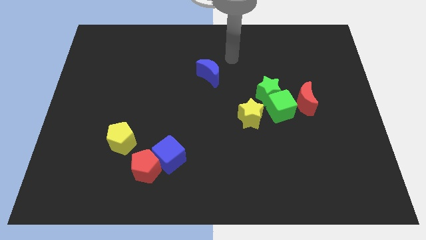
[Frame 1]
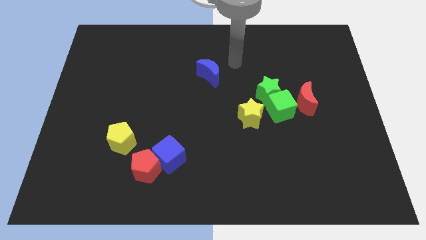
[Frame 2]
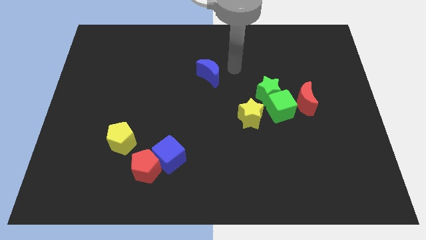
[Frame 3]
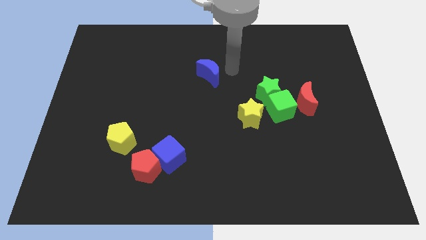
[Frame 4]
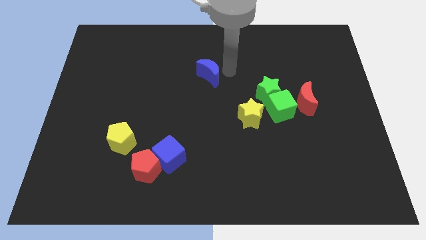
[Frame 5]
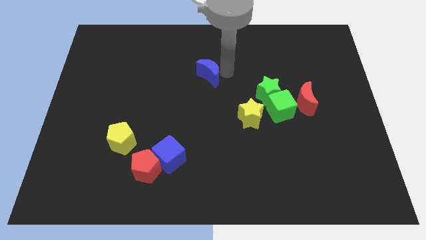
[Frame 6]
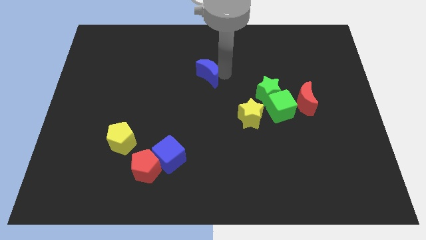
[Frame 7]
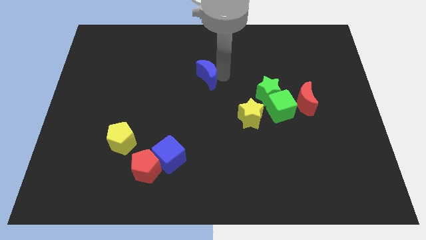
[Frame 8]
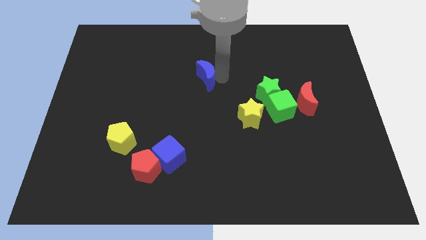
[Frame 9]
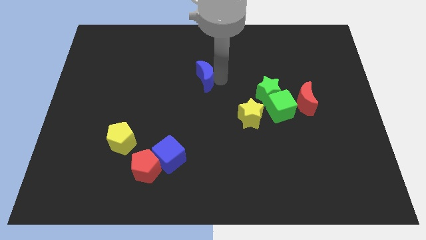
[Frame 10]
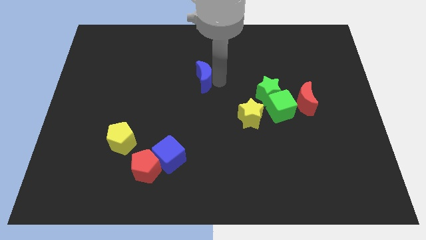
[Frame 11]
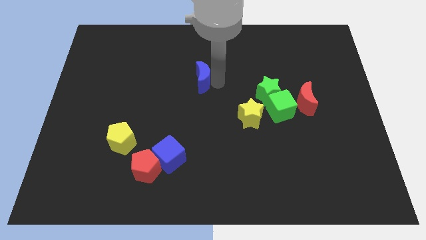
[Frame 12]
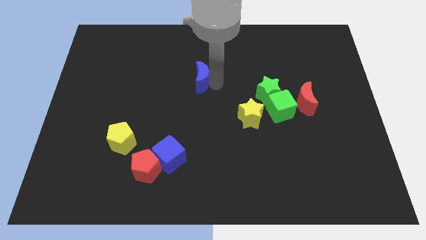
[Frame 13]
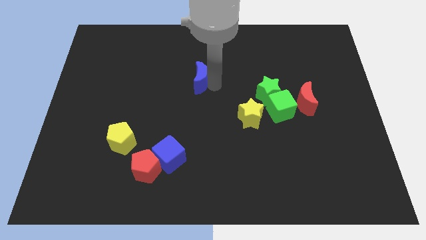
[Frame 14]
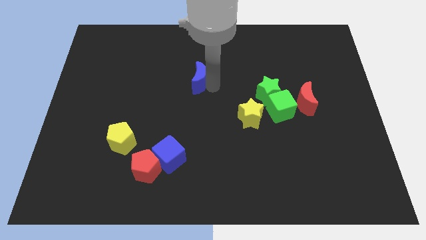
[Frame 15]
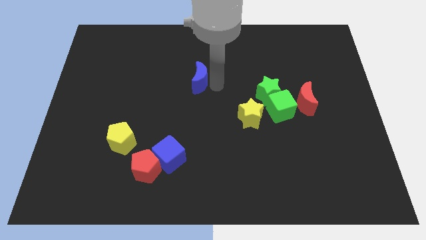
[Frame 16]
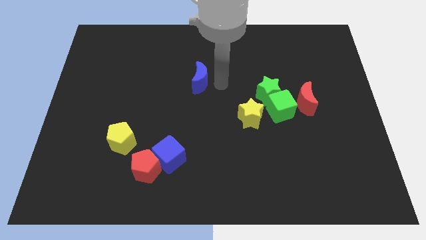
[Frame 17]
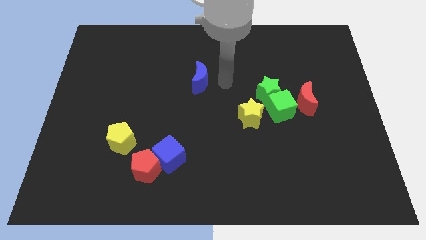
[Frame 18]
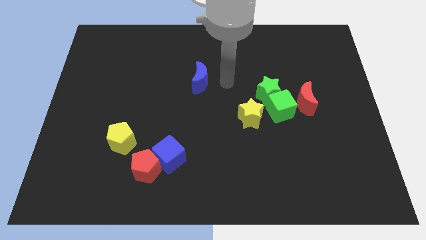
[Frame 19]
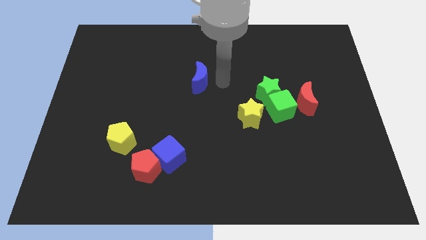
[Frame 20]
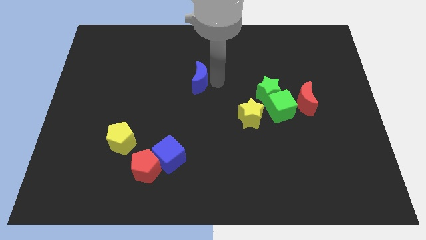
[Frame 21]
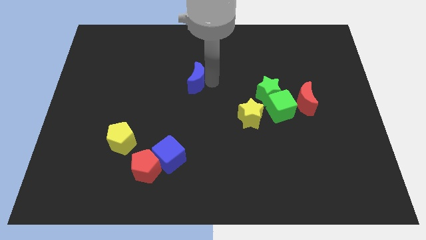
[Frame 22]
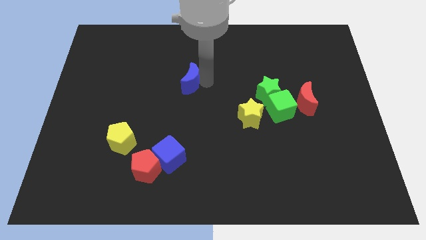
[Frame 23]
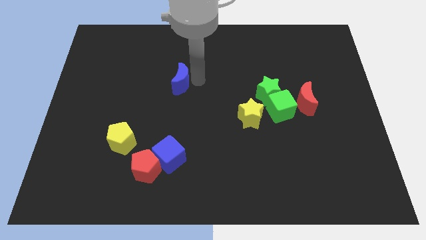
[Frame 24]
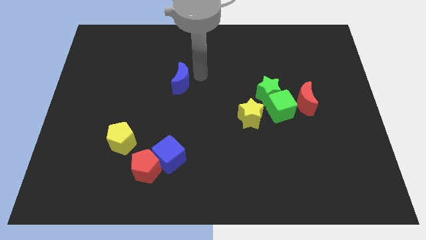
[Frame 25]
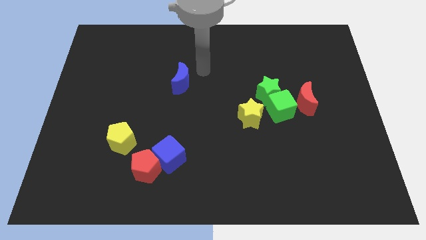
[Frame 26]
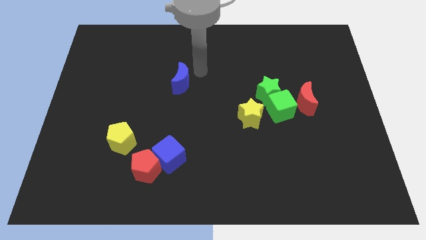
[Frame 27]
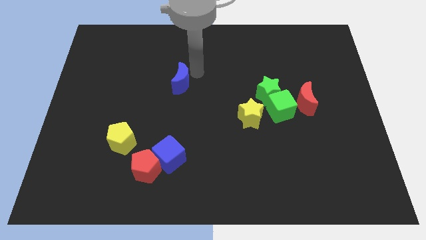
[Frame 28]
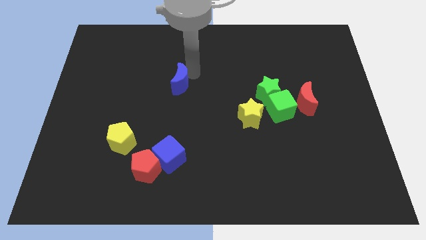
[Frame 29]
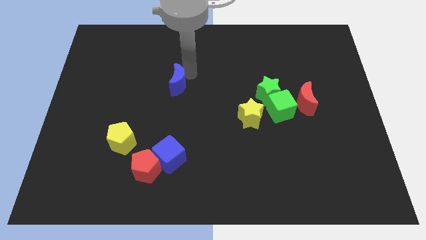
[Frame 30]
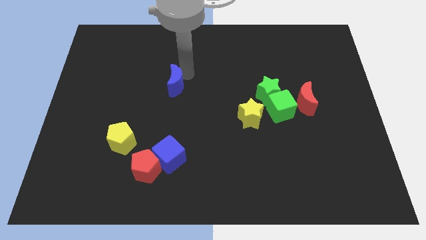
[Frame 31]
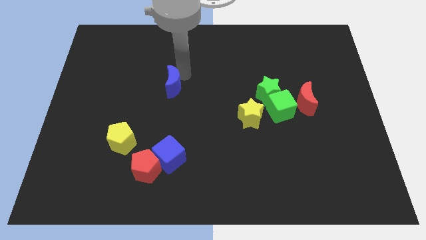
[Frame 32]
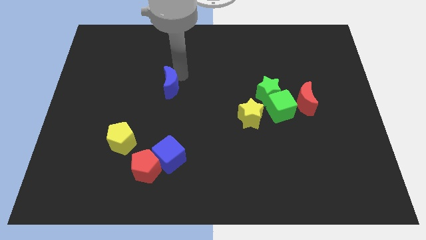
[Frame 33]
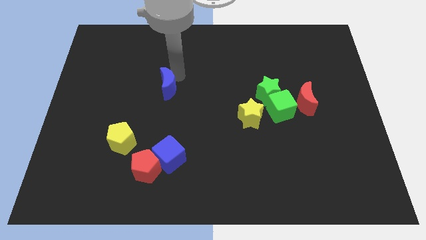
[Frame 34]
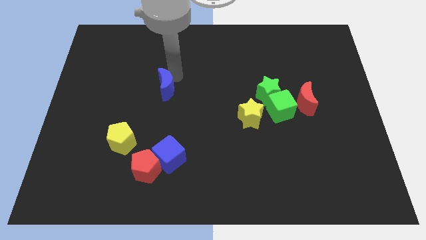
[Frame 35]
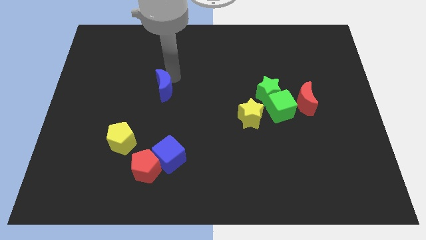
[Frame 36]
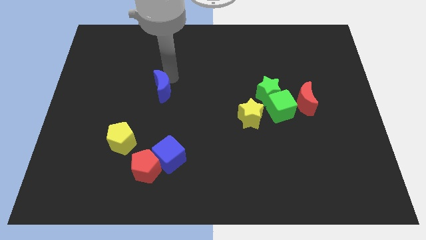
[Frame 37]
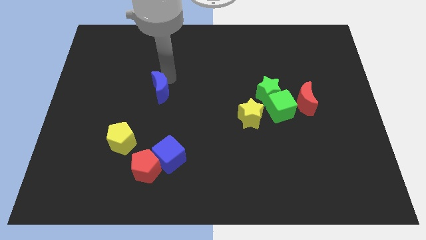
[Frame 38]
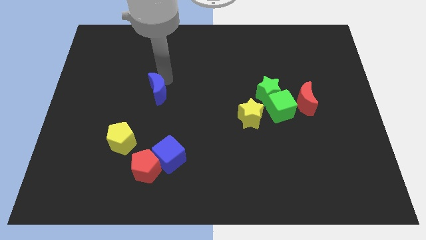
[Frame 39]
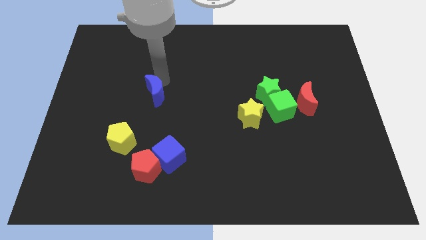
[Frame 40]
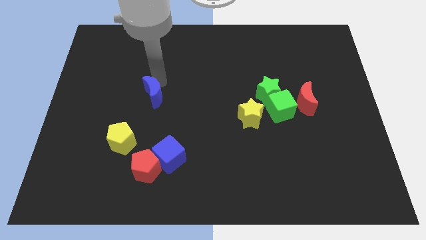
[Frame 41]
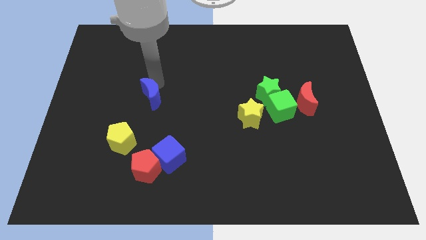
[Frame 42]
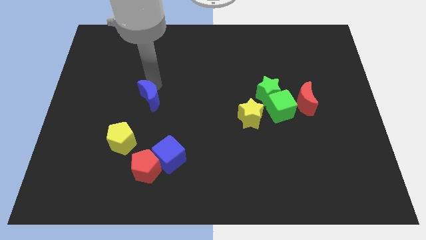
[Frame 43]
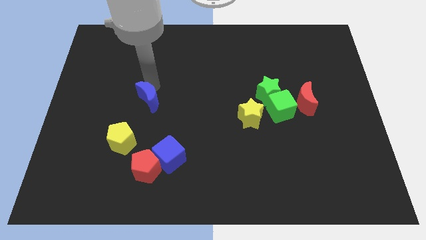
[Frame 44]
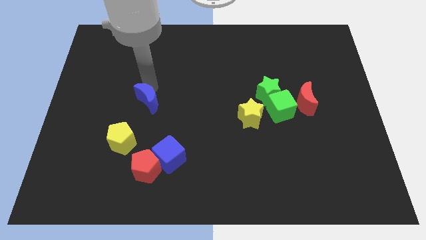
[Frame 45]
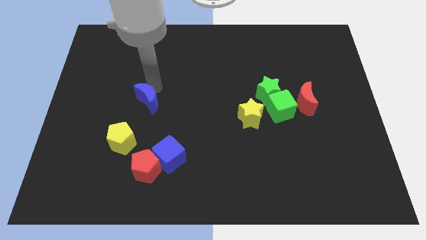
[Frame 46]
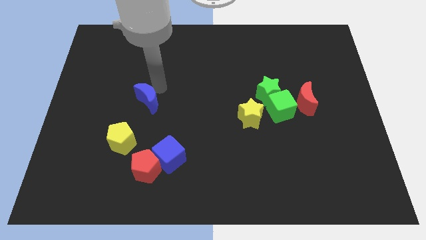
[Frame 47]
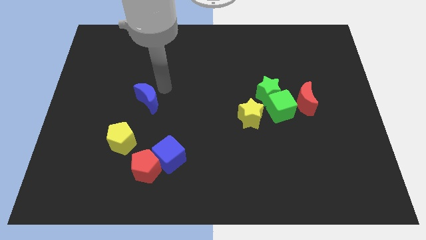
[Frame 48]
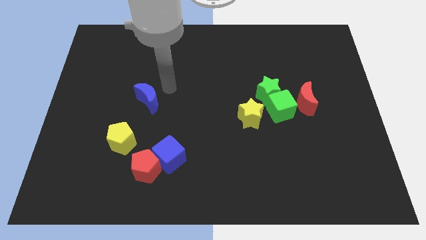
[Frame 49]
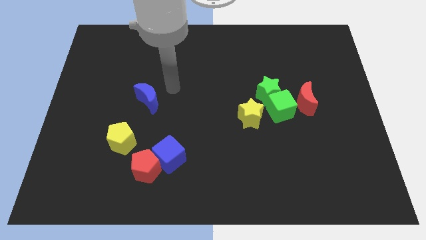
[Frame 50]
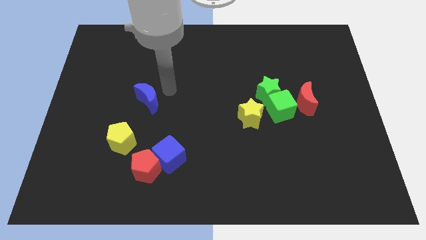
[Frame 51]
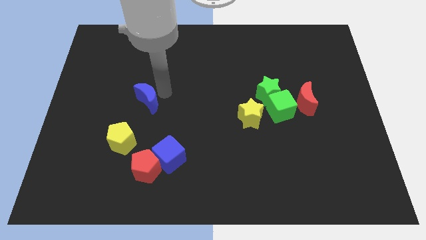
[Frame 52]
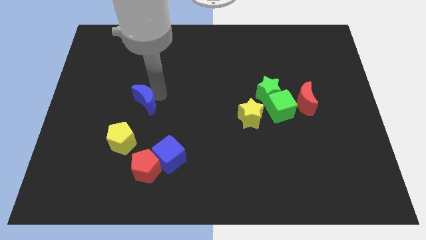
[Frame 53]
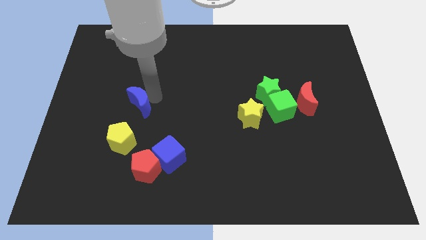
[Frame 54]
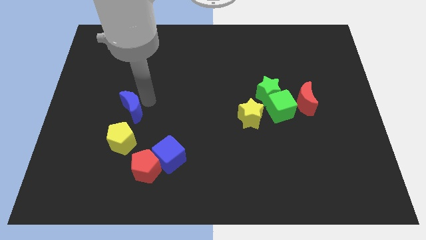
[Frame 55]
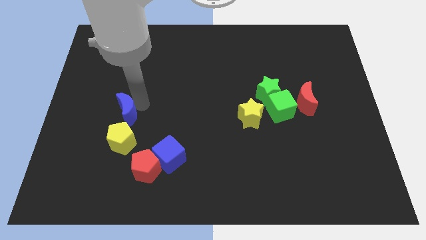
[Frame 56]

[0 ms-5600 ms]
slide the blue moon downwards and then left

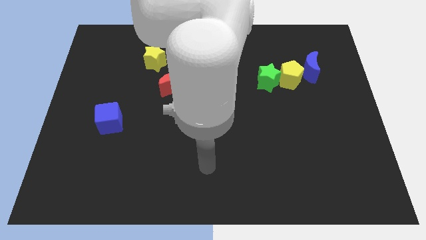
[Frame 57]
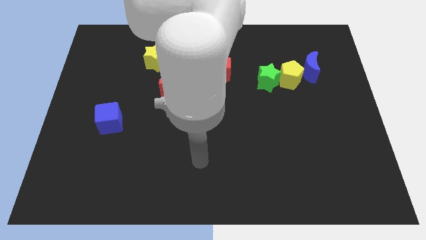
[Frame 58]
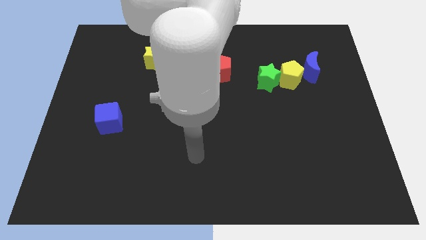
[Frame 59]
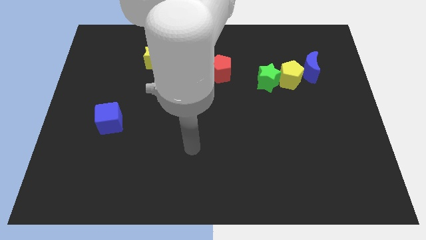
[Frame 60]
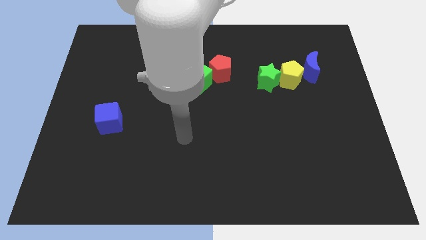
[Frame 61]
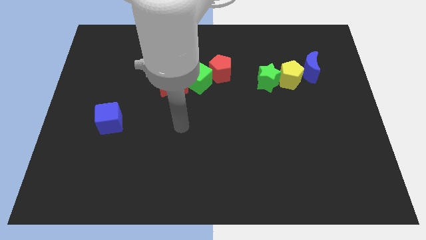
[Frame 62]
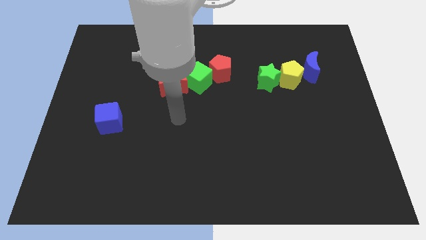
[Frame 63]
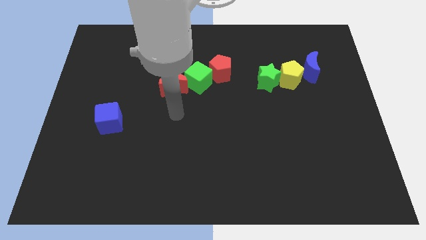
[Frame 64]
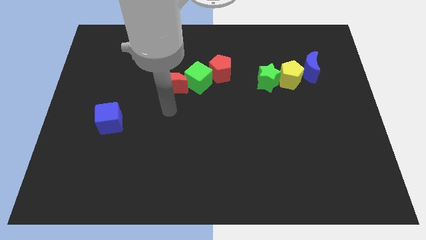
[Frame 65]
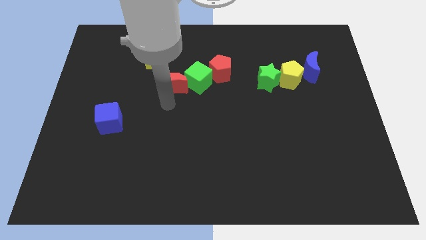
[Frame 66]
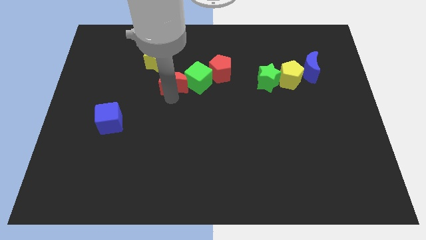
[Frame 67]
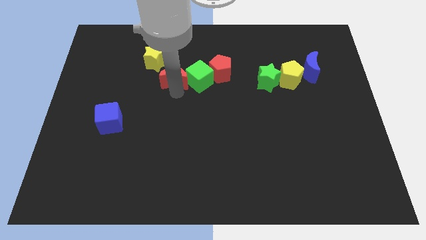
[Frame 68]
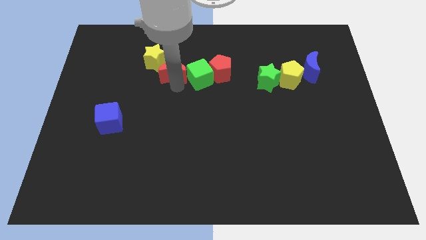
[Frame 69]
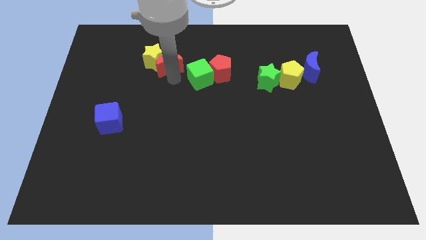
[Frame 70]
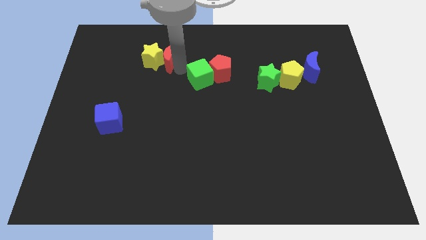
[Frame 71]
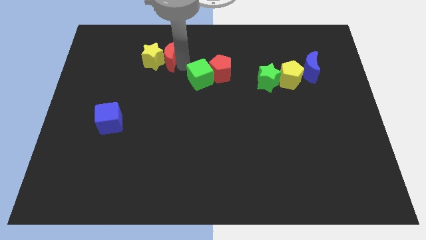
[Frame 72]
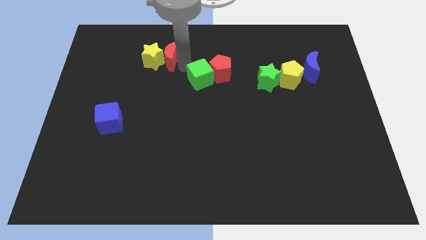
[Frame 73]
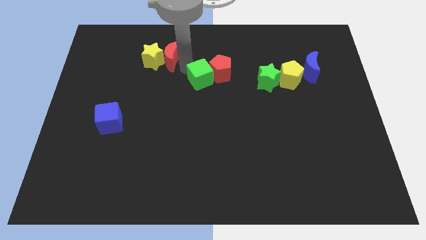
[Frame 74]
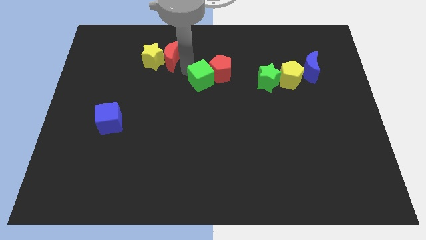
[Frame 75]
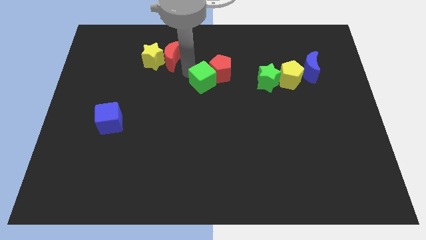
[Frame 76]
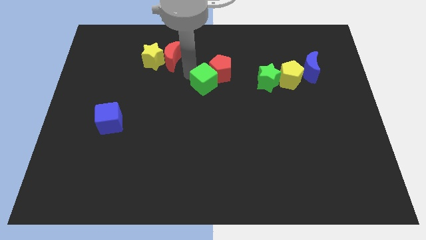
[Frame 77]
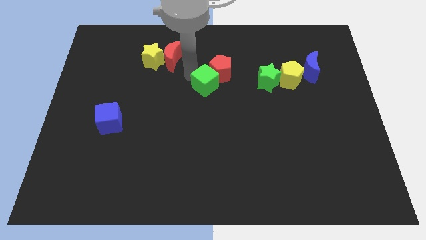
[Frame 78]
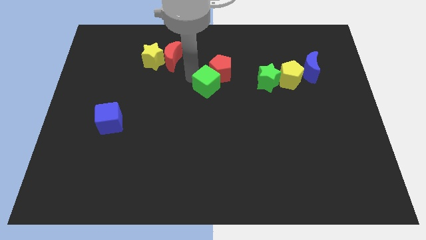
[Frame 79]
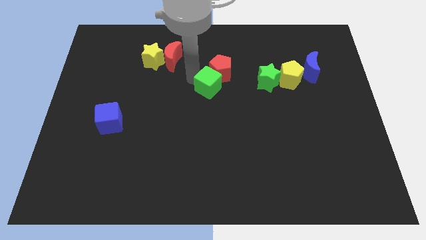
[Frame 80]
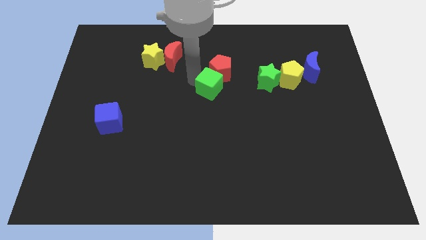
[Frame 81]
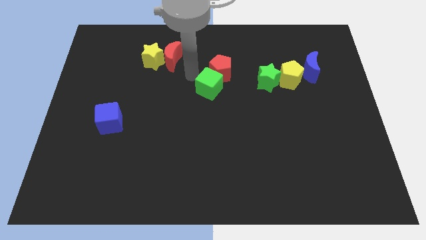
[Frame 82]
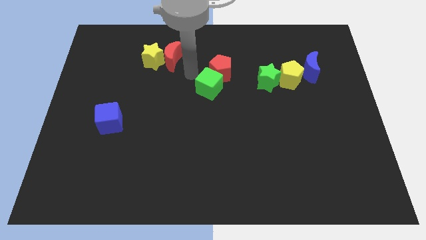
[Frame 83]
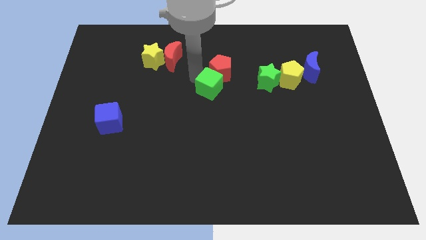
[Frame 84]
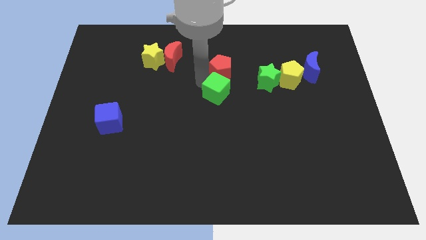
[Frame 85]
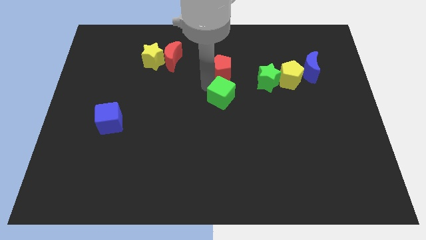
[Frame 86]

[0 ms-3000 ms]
slightly slide the green cube diagonally down and right
